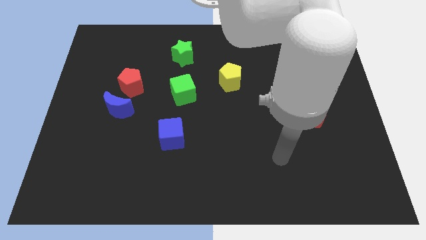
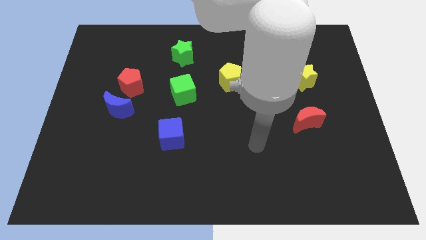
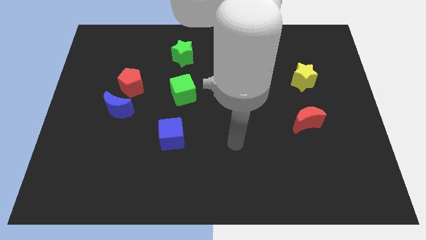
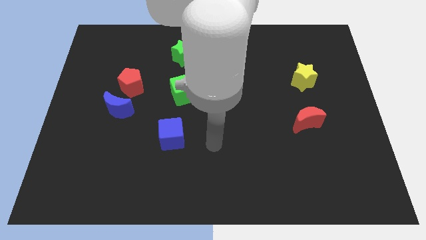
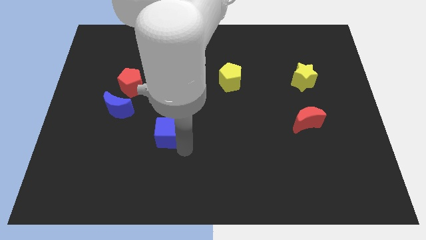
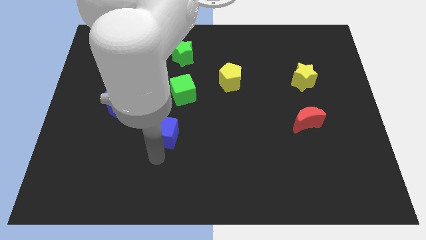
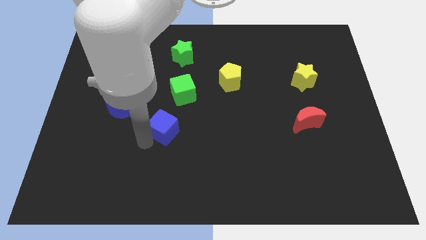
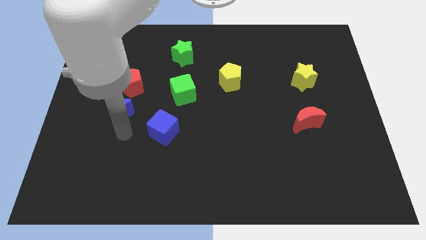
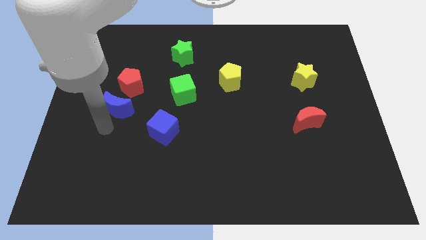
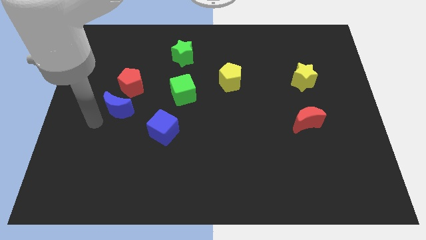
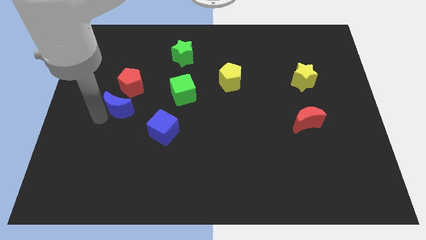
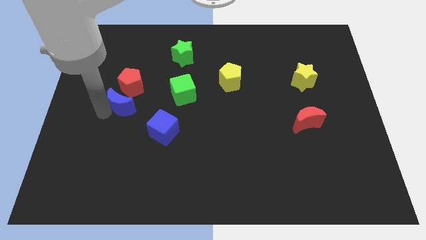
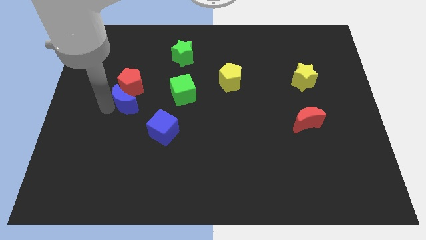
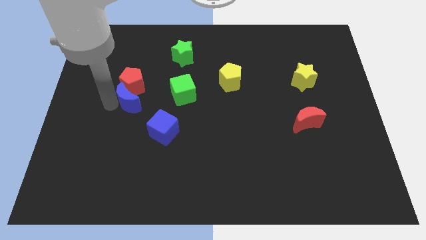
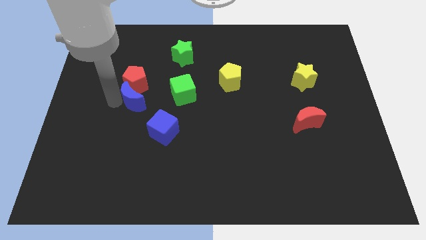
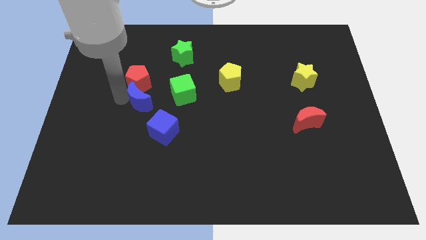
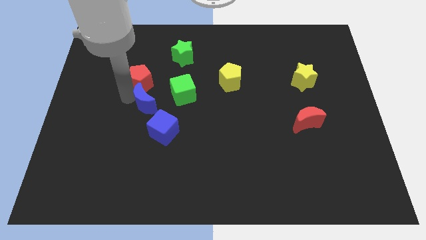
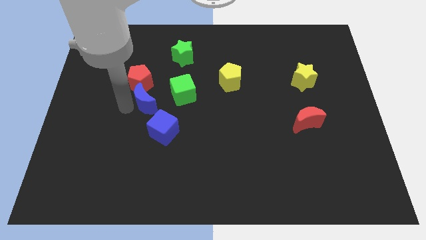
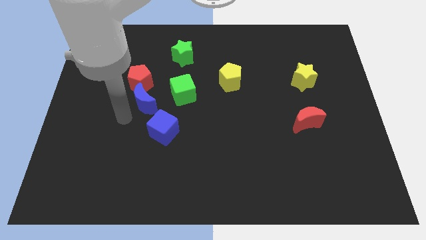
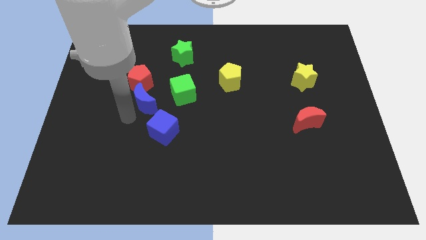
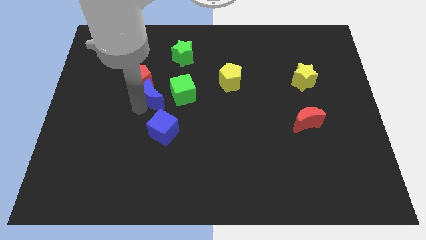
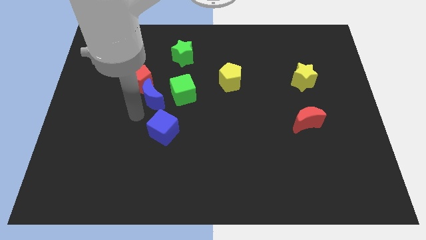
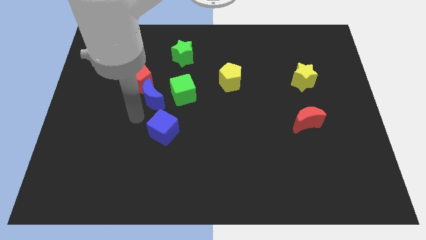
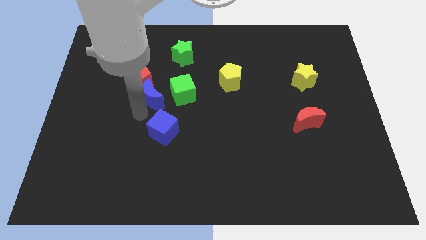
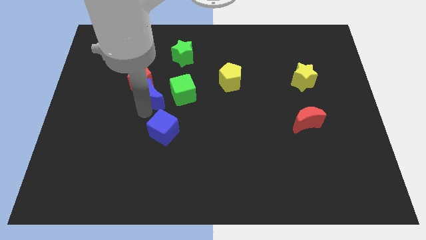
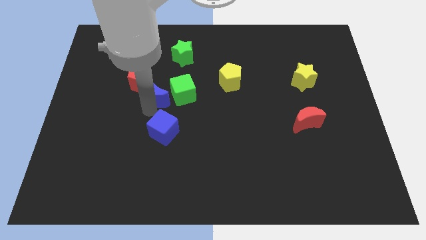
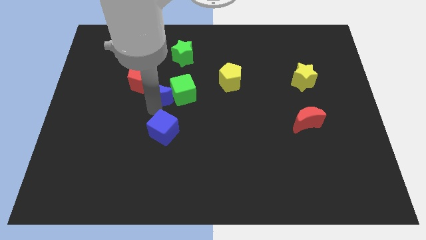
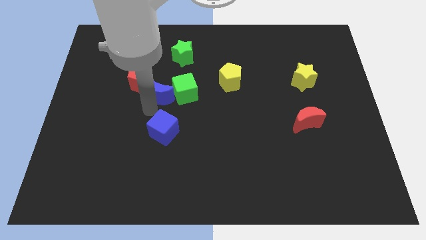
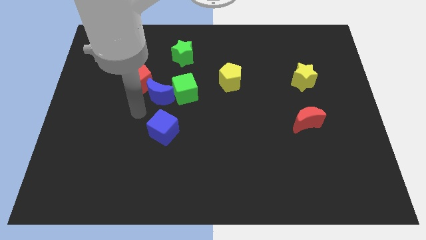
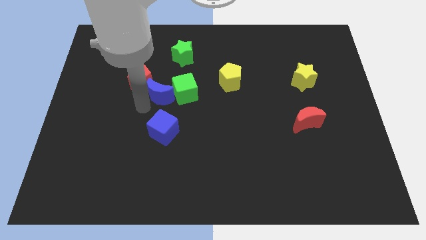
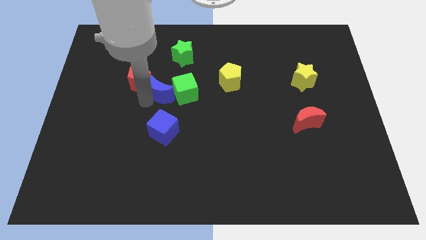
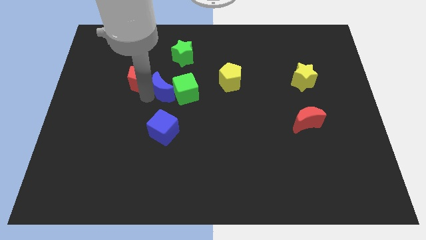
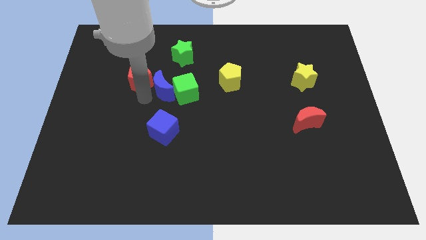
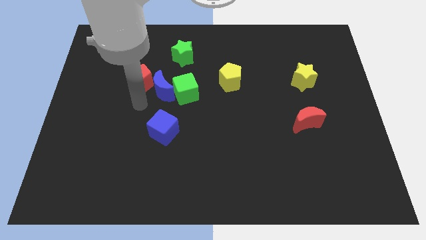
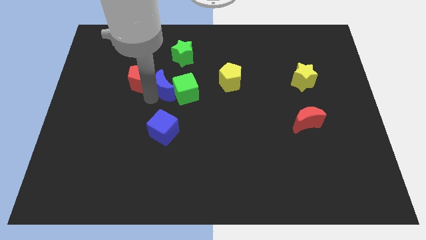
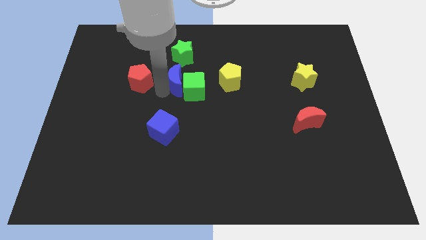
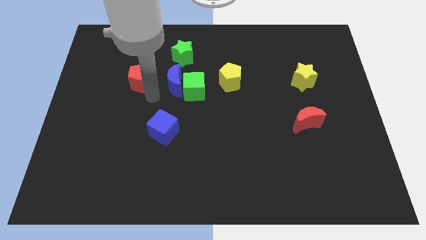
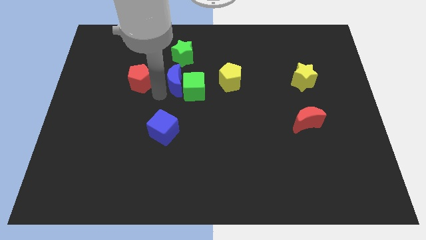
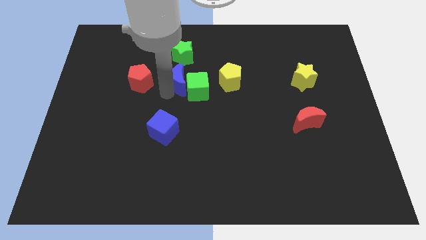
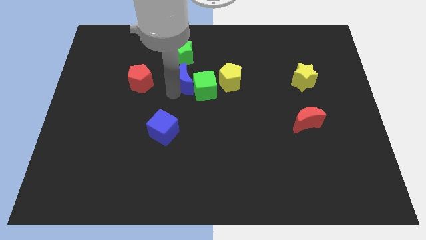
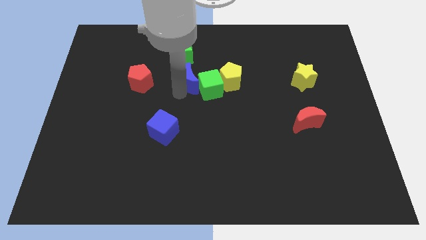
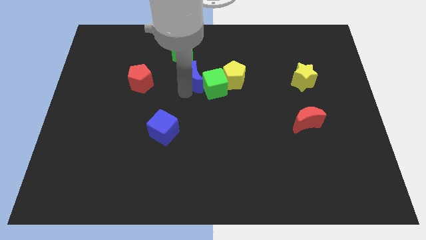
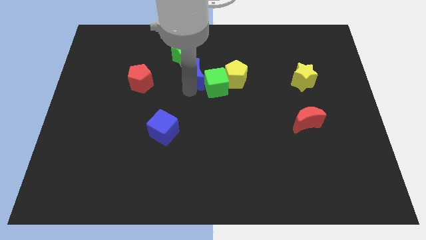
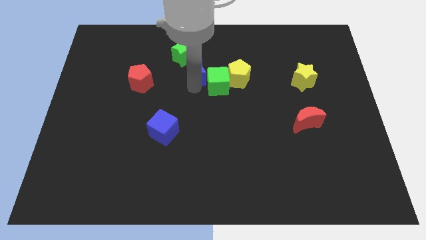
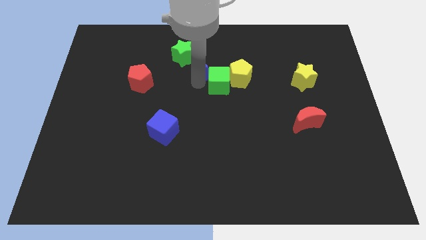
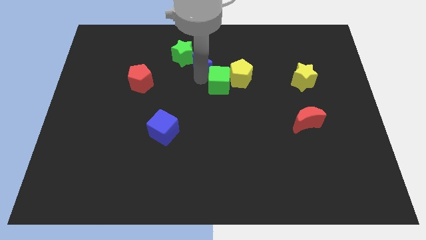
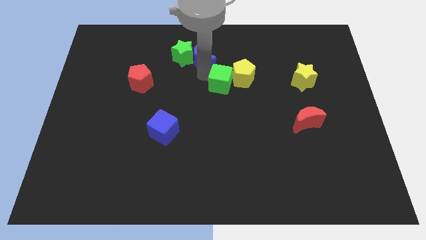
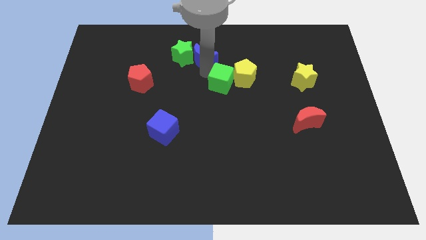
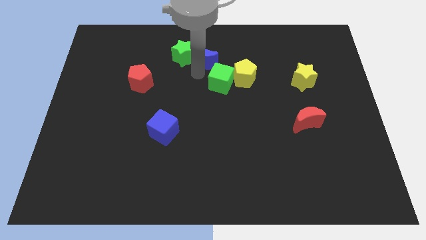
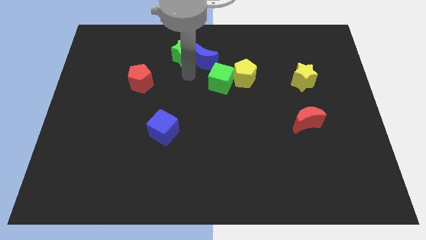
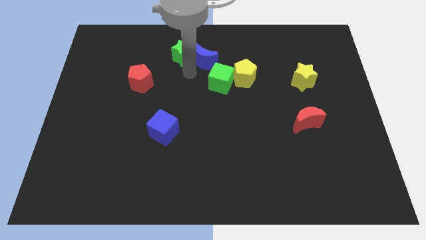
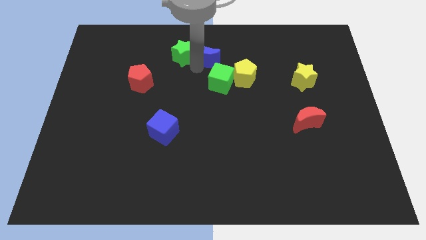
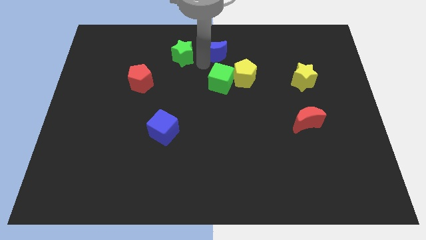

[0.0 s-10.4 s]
slide the blue moon to the towards your base

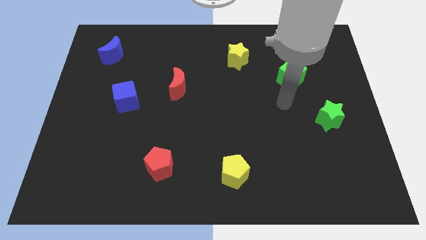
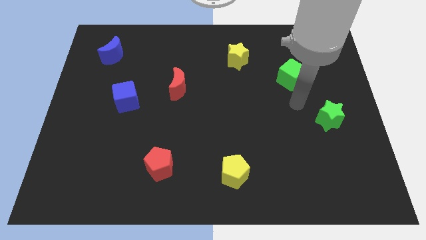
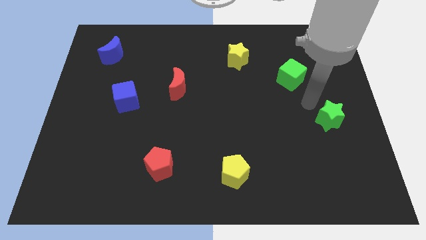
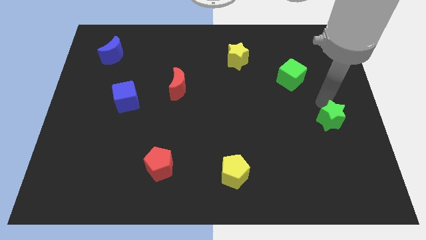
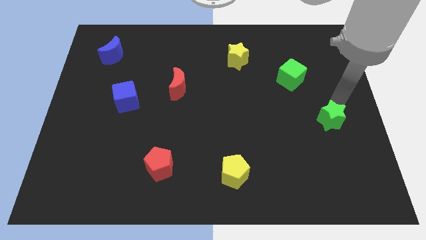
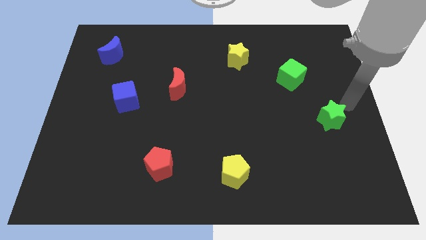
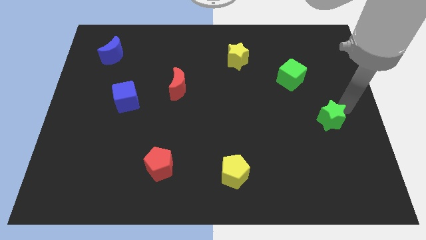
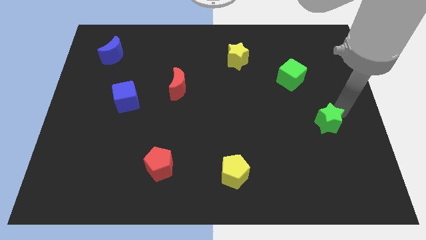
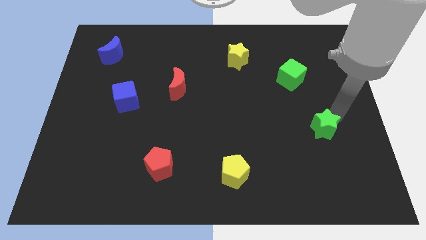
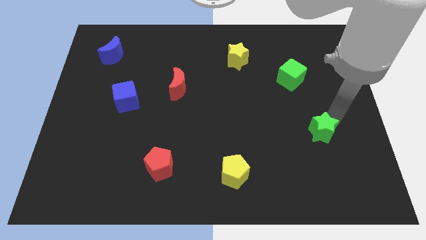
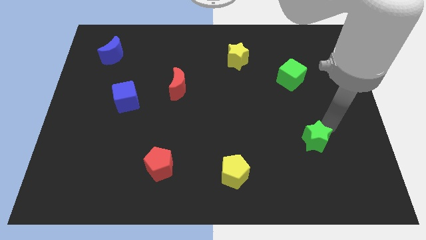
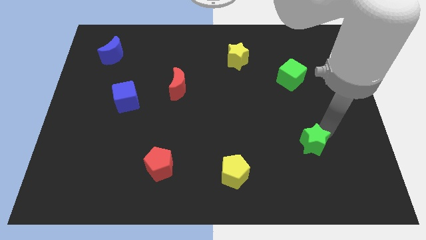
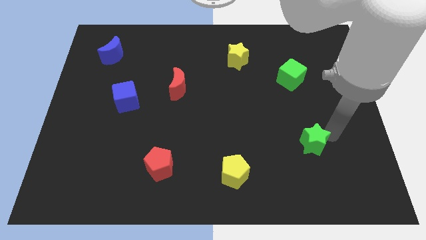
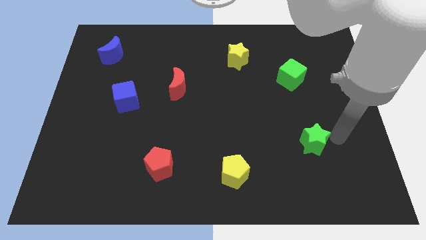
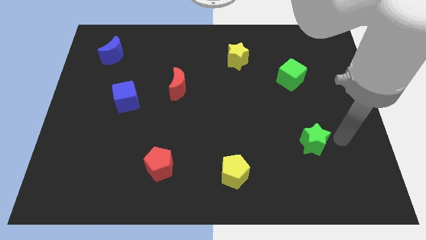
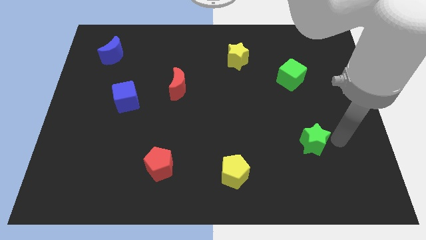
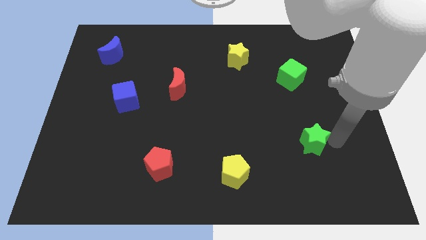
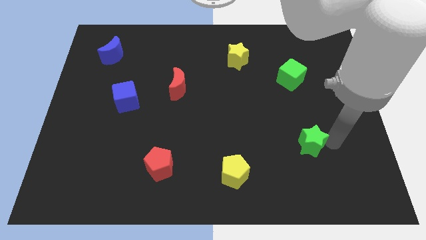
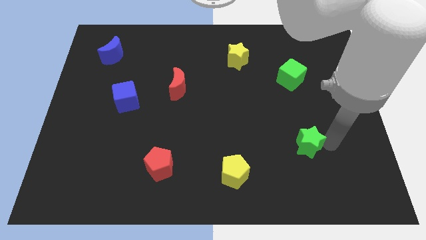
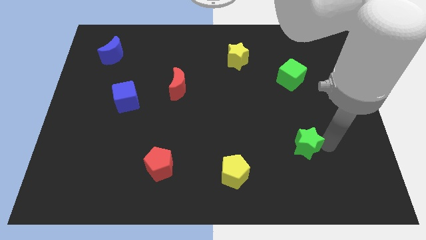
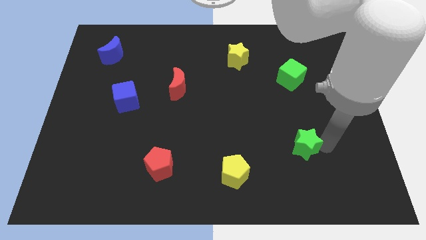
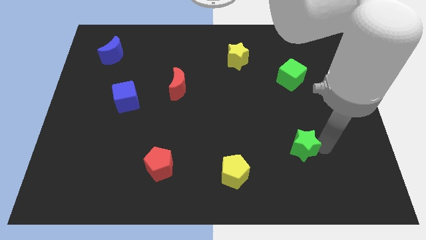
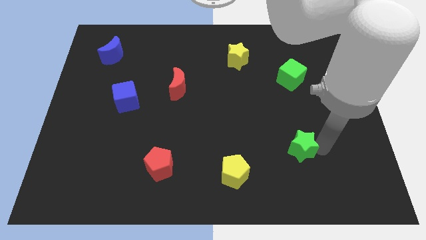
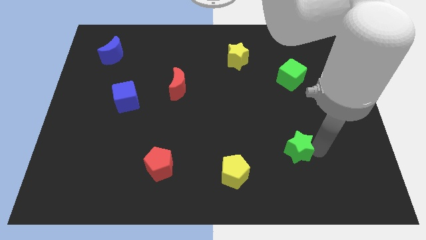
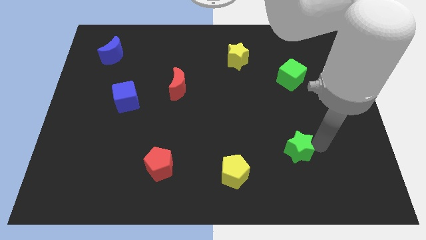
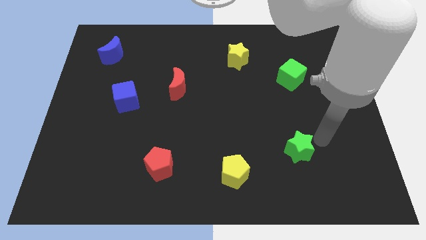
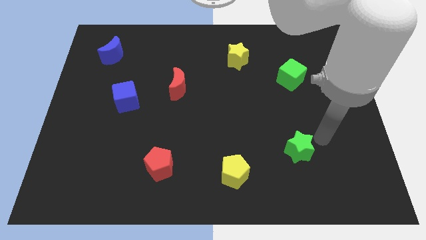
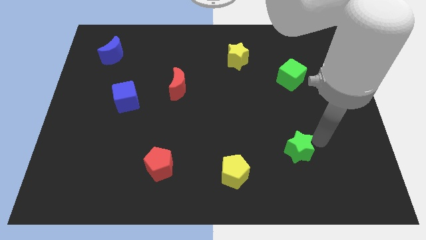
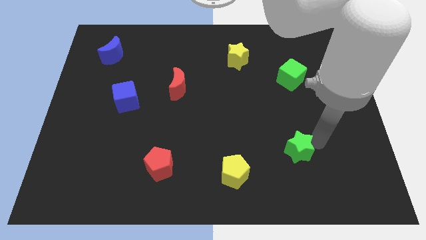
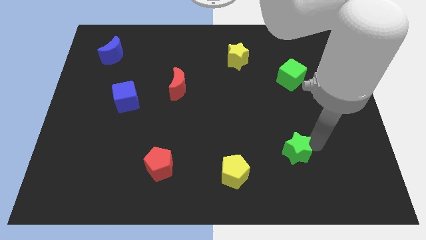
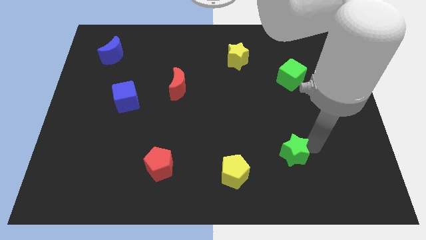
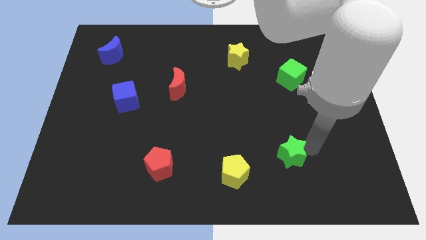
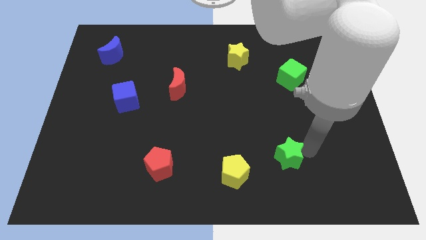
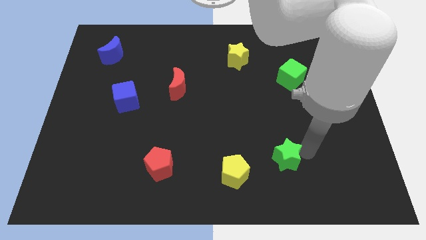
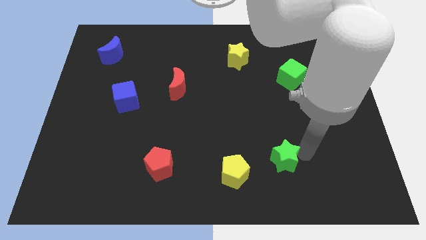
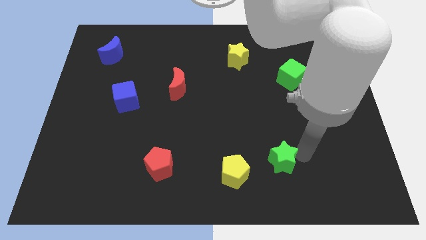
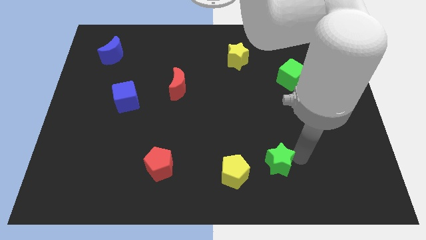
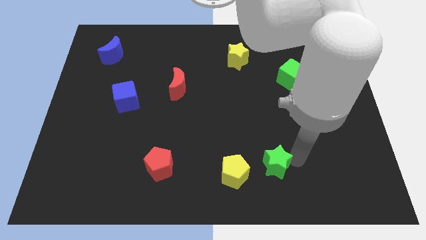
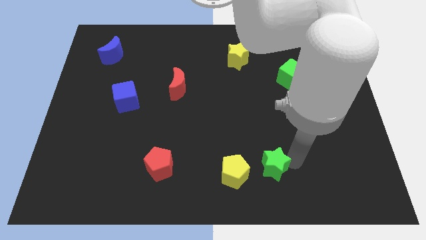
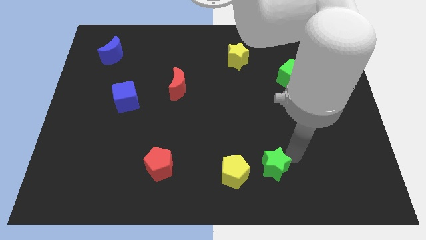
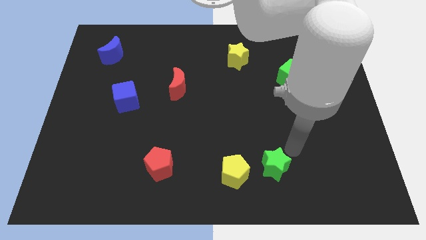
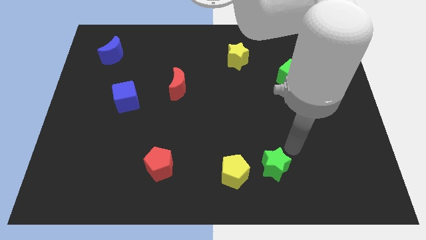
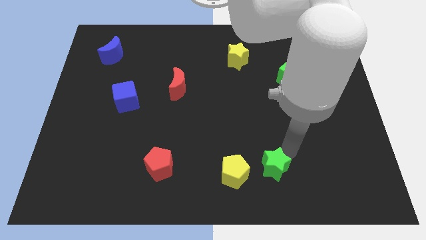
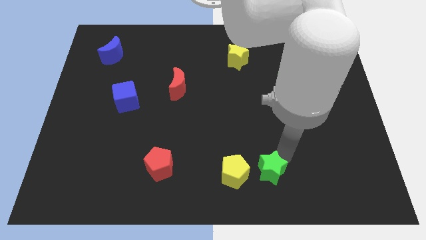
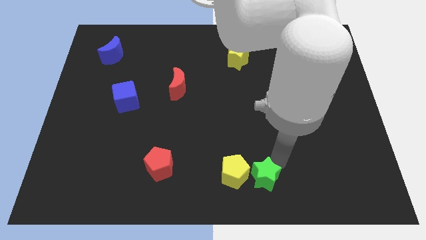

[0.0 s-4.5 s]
slide the green star to the bottom side
